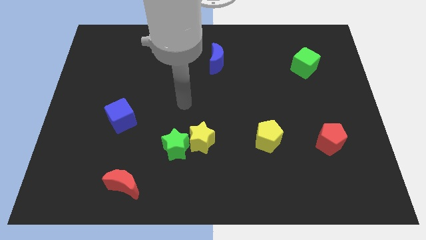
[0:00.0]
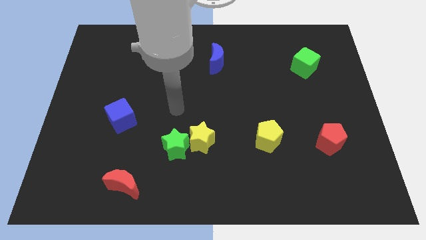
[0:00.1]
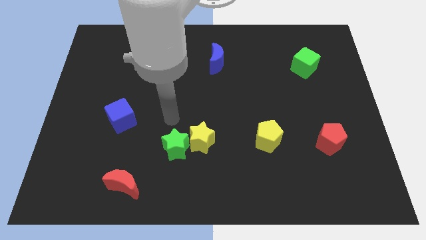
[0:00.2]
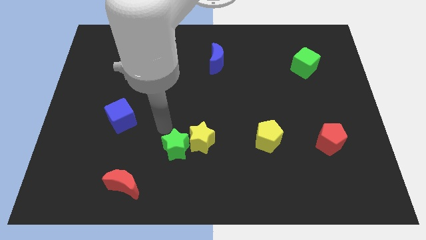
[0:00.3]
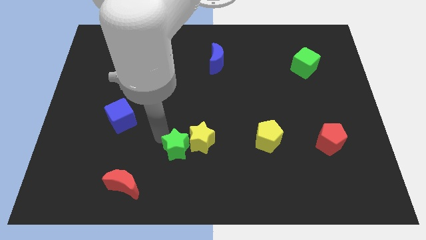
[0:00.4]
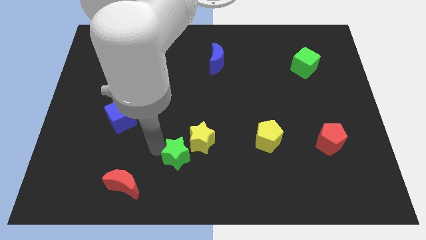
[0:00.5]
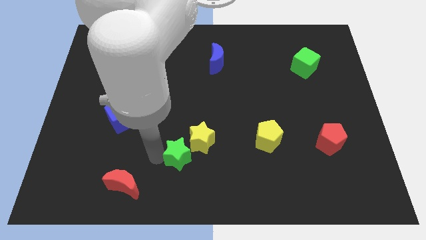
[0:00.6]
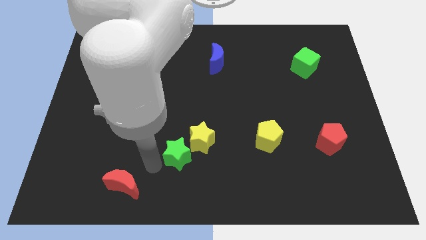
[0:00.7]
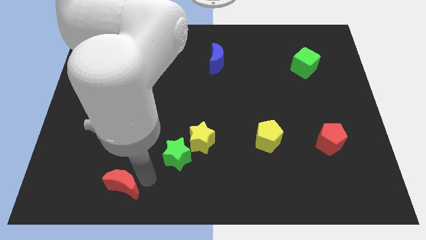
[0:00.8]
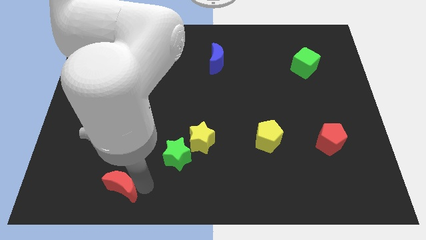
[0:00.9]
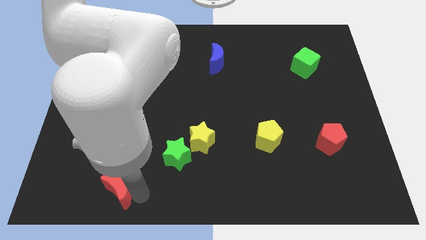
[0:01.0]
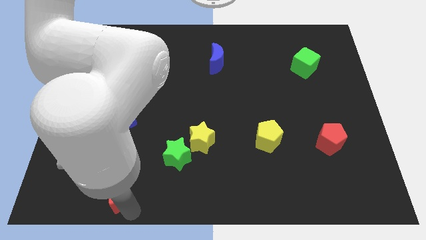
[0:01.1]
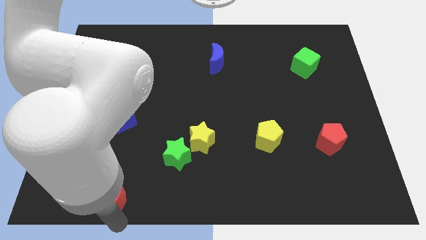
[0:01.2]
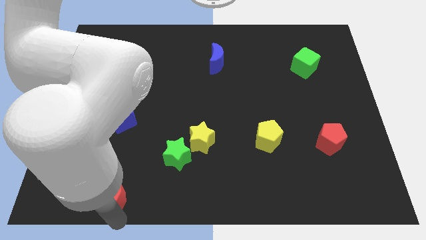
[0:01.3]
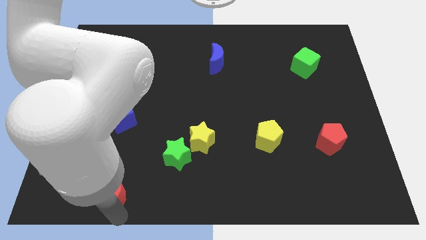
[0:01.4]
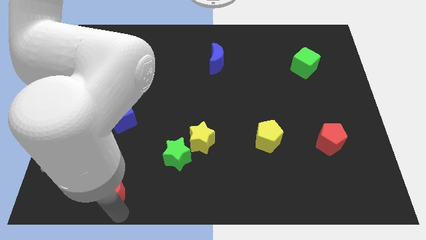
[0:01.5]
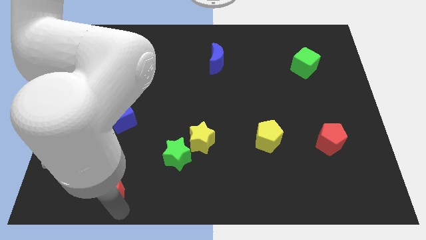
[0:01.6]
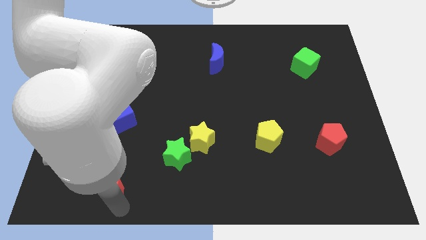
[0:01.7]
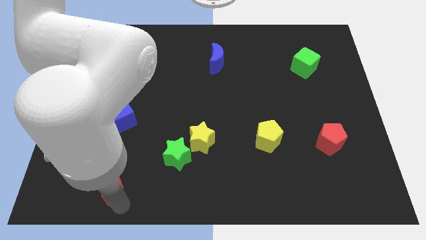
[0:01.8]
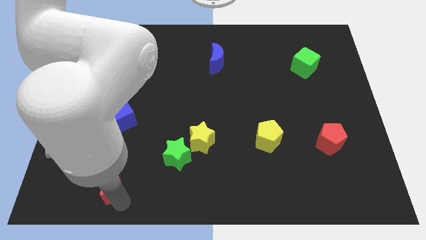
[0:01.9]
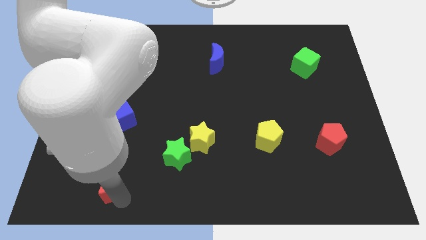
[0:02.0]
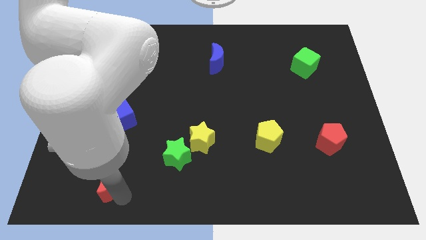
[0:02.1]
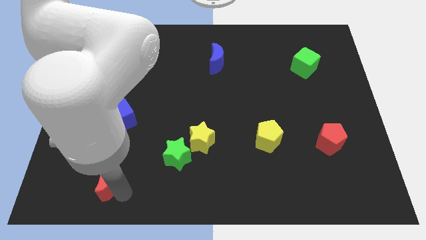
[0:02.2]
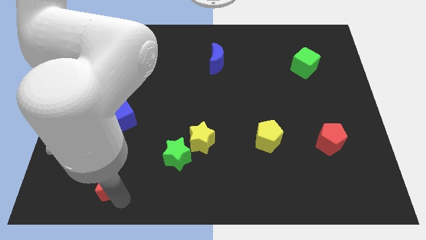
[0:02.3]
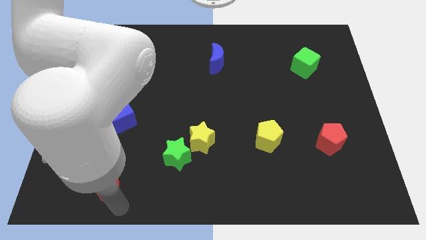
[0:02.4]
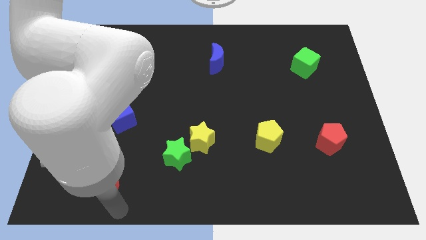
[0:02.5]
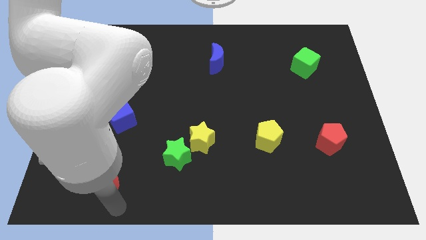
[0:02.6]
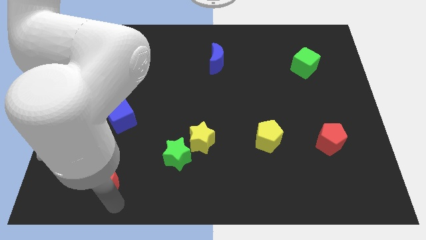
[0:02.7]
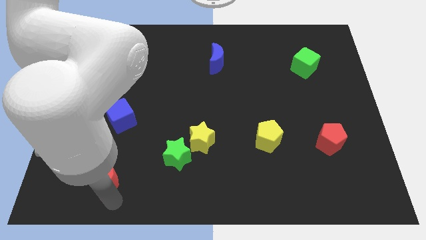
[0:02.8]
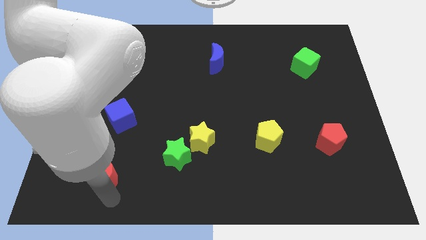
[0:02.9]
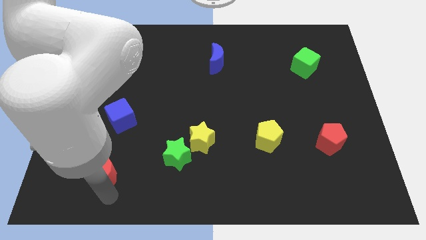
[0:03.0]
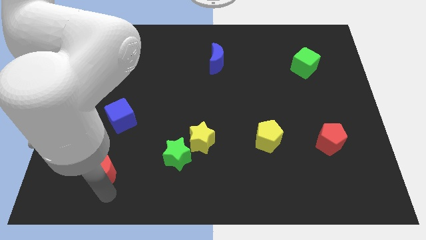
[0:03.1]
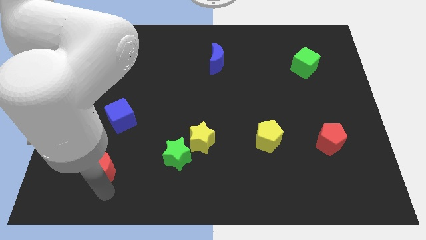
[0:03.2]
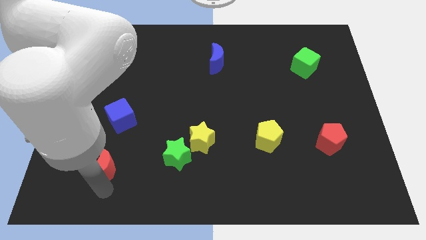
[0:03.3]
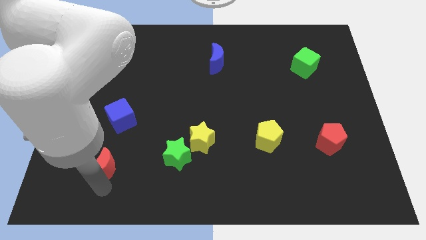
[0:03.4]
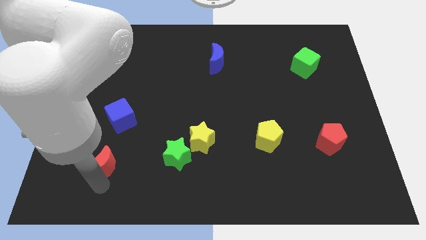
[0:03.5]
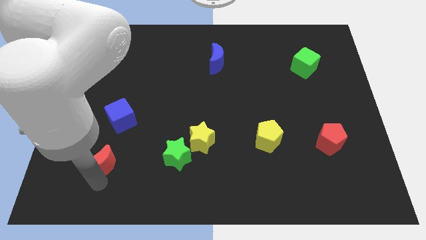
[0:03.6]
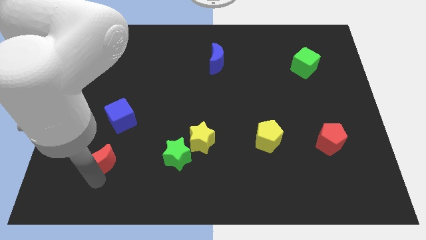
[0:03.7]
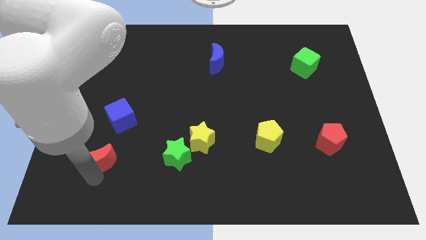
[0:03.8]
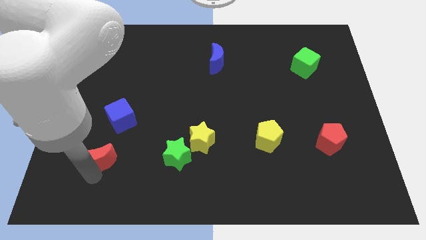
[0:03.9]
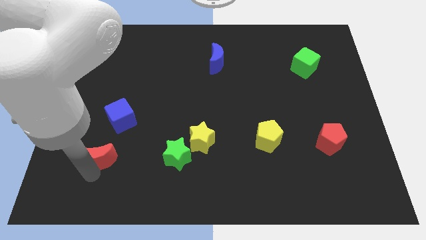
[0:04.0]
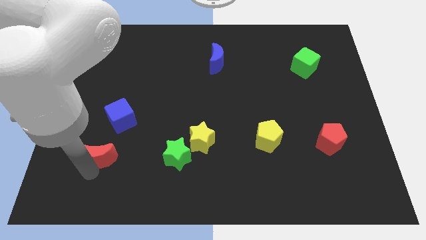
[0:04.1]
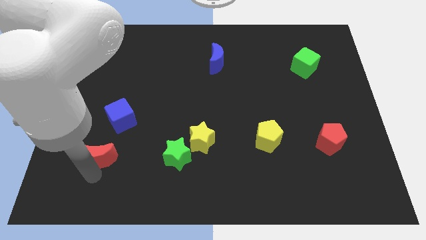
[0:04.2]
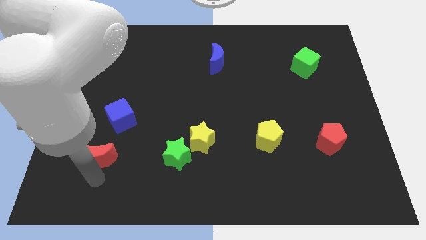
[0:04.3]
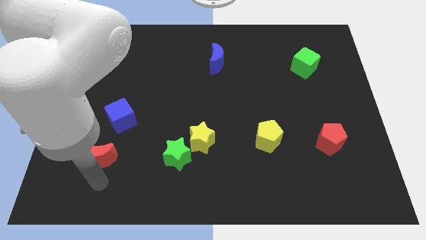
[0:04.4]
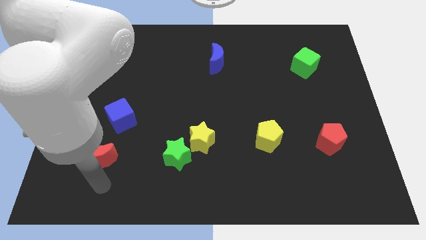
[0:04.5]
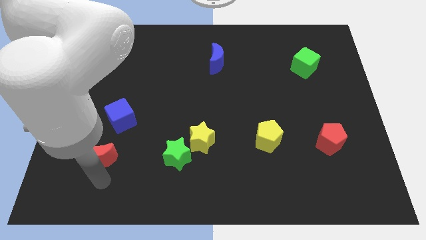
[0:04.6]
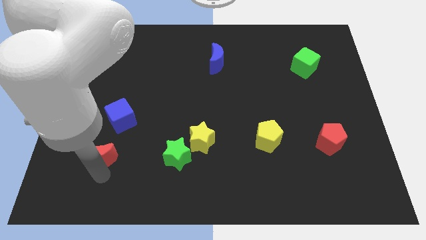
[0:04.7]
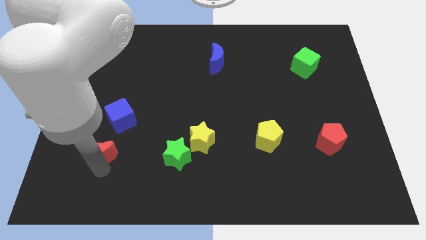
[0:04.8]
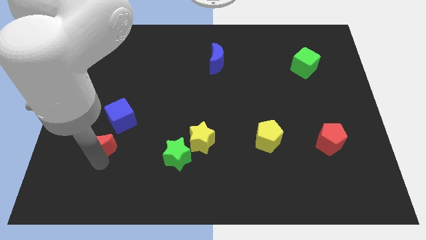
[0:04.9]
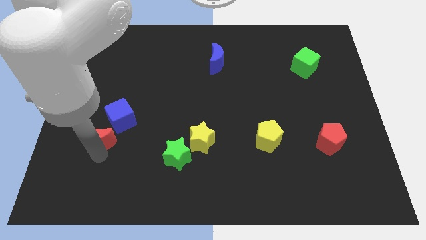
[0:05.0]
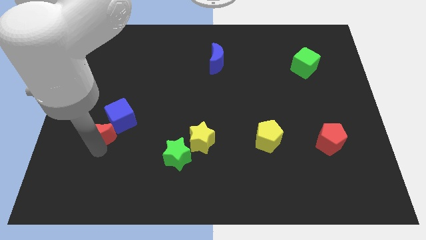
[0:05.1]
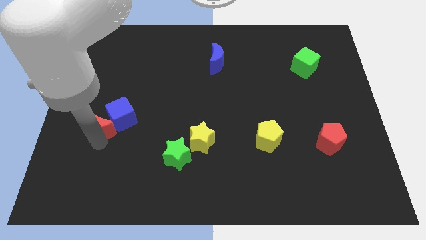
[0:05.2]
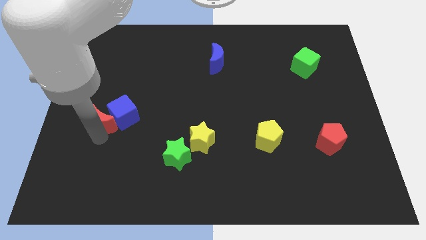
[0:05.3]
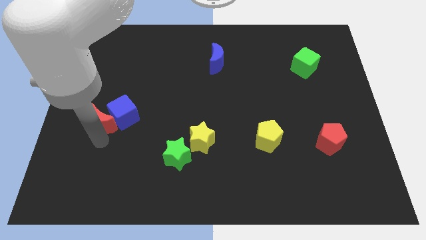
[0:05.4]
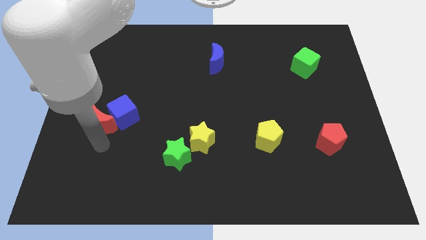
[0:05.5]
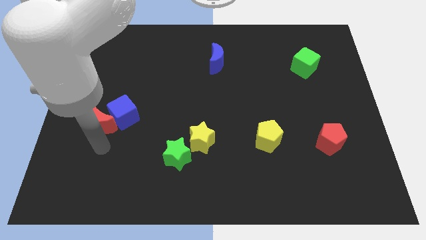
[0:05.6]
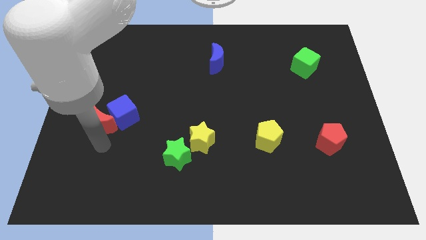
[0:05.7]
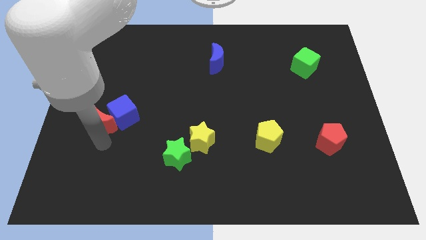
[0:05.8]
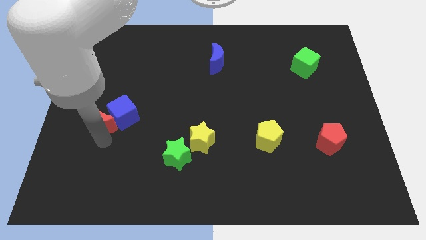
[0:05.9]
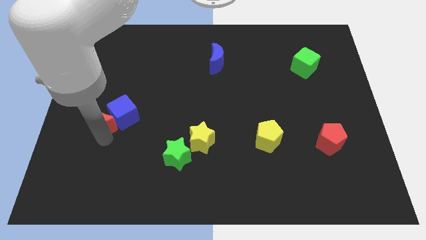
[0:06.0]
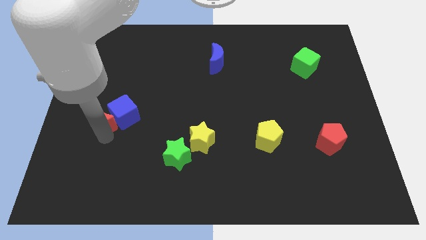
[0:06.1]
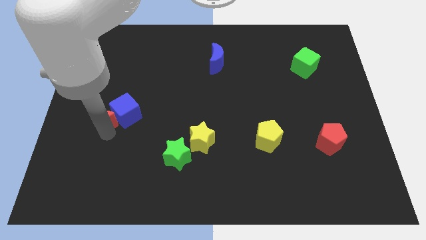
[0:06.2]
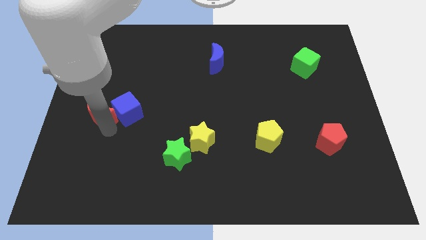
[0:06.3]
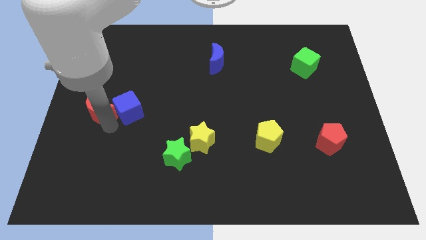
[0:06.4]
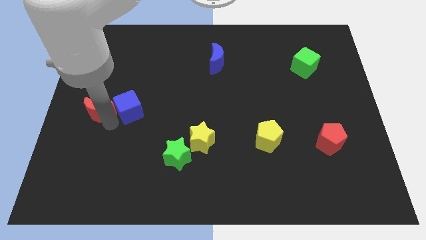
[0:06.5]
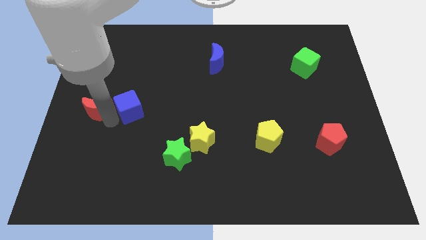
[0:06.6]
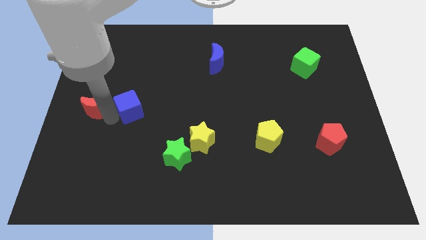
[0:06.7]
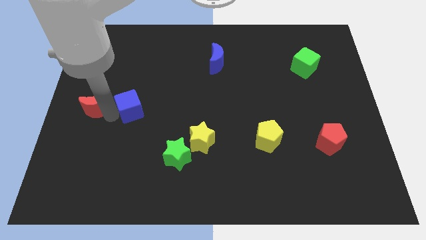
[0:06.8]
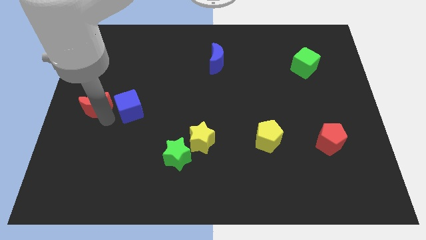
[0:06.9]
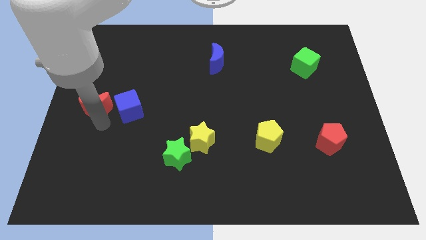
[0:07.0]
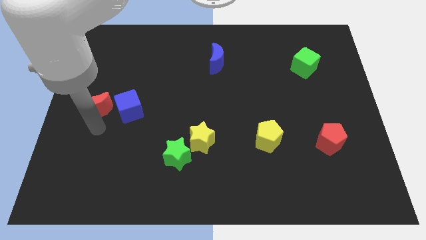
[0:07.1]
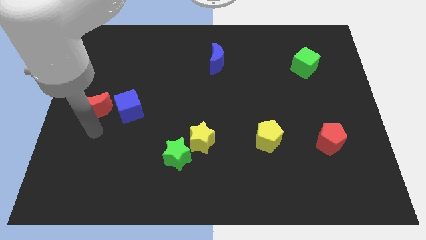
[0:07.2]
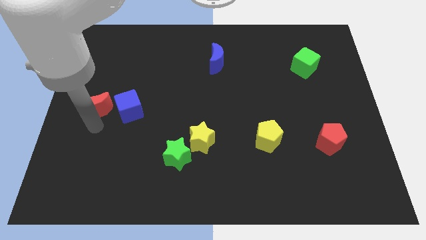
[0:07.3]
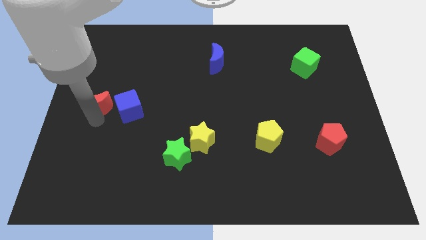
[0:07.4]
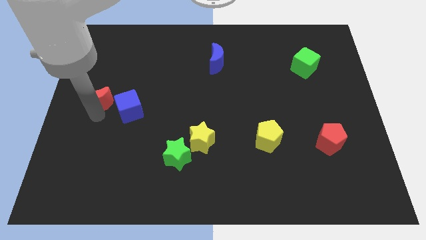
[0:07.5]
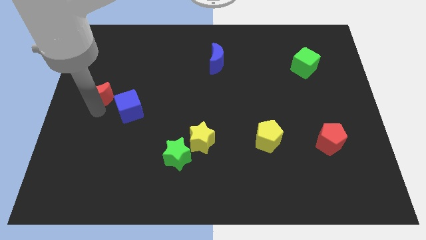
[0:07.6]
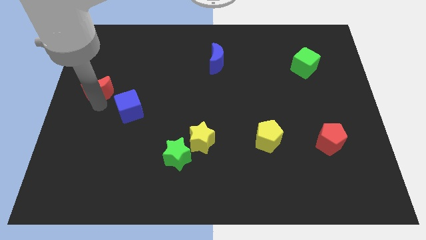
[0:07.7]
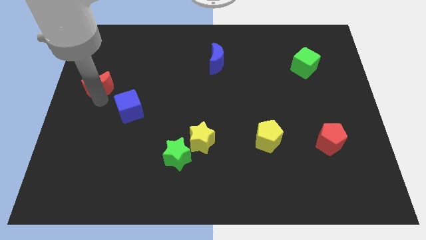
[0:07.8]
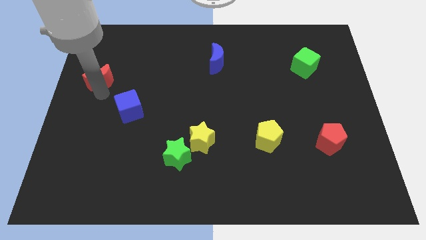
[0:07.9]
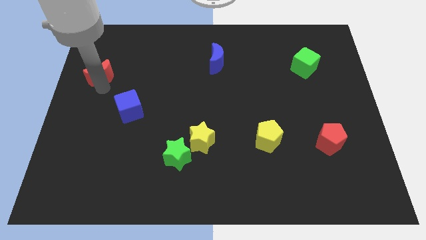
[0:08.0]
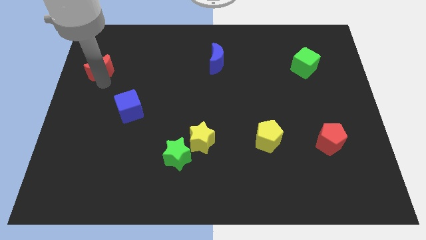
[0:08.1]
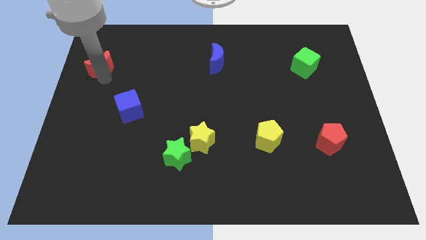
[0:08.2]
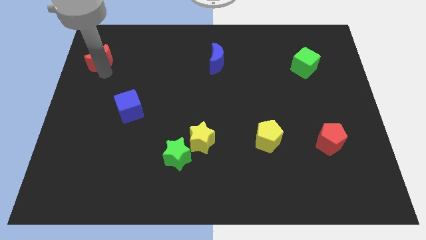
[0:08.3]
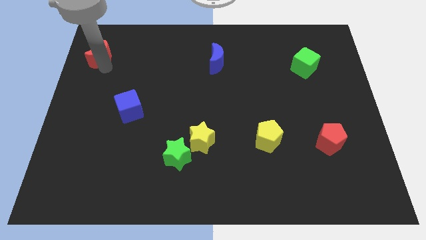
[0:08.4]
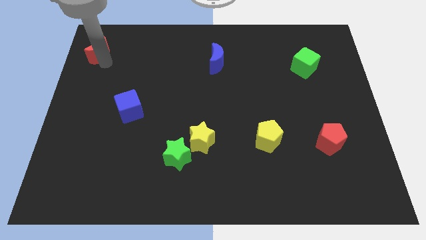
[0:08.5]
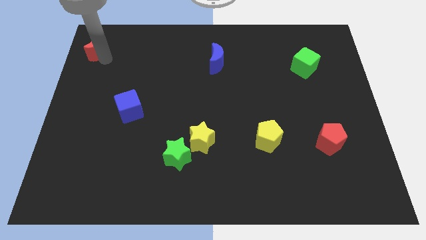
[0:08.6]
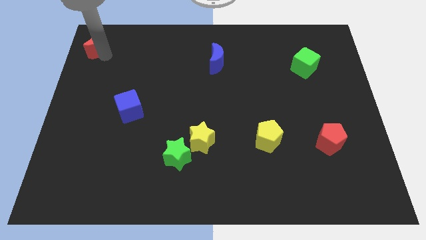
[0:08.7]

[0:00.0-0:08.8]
put the red moon to the top left
